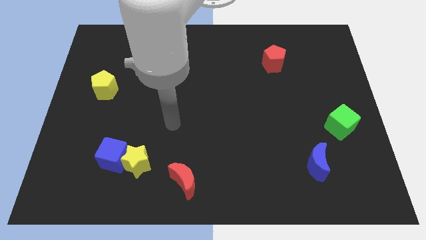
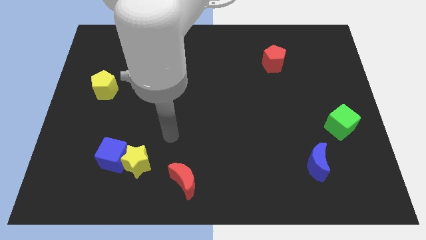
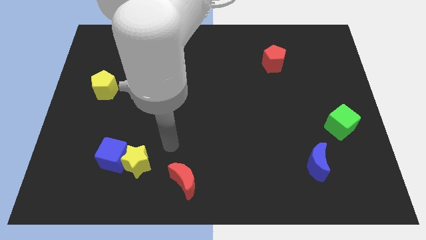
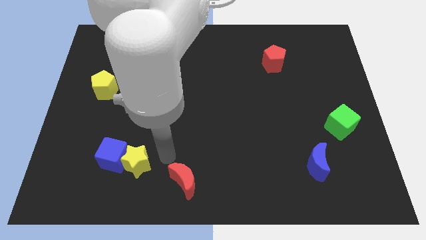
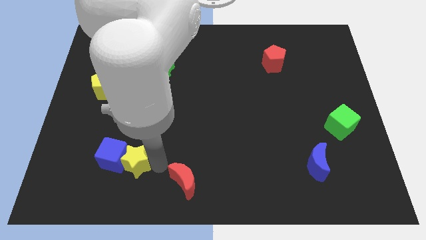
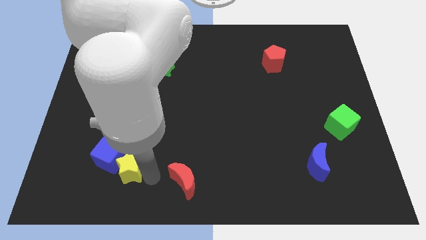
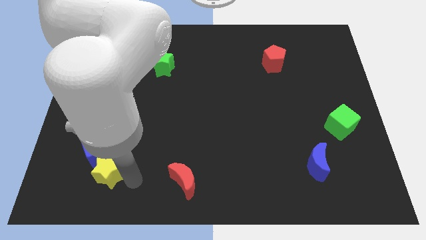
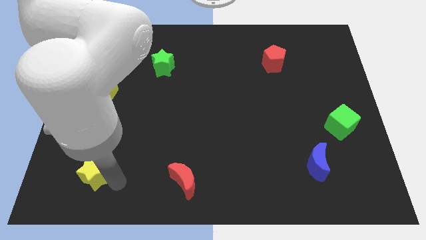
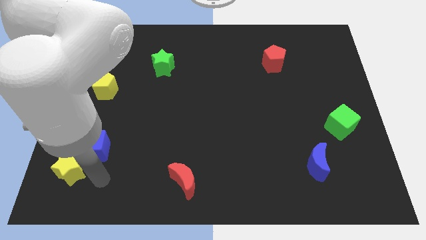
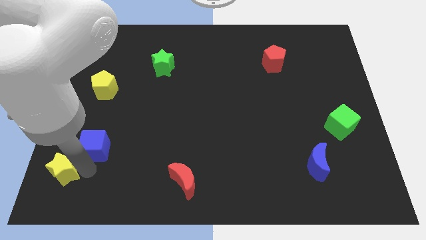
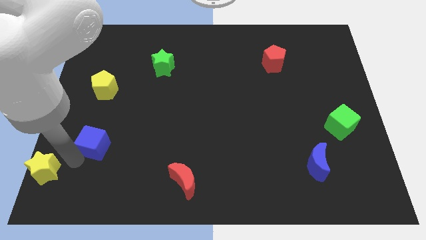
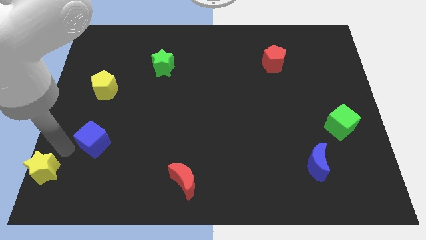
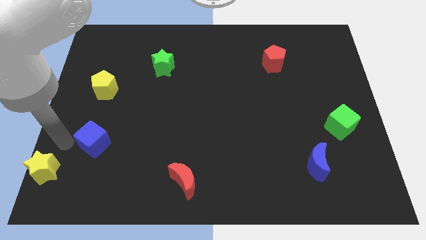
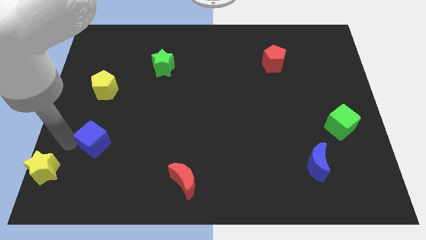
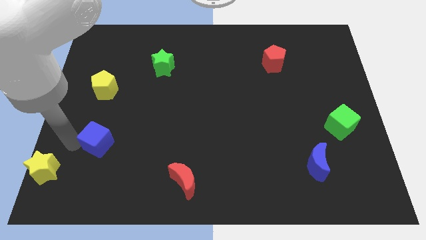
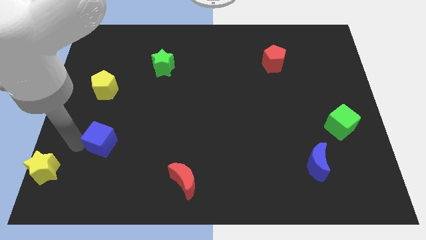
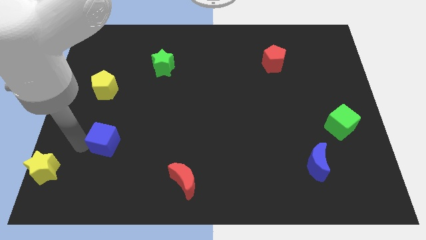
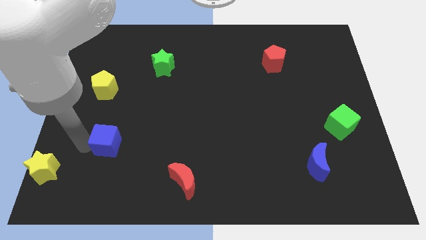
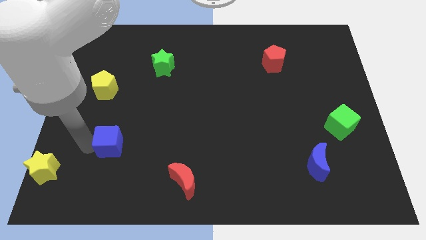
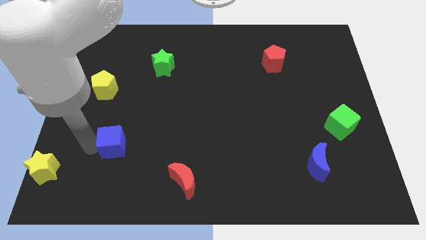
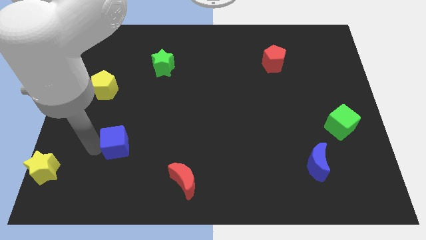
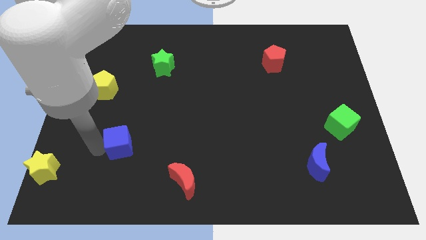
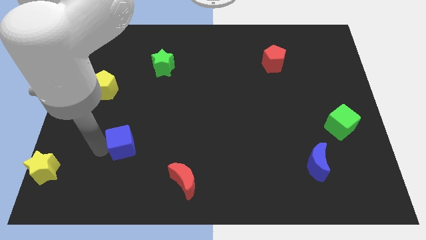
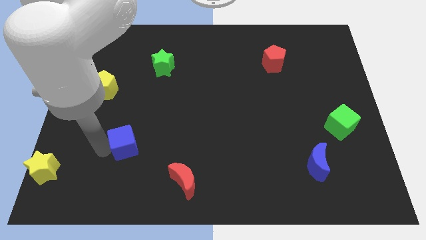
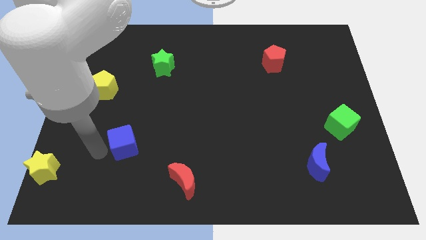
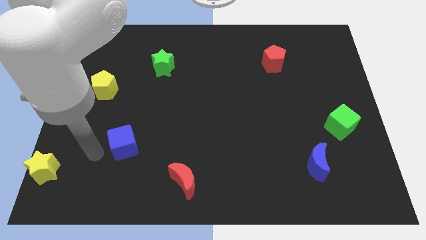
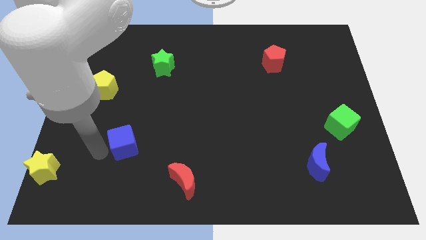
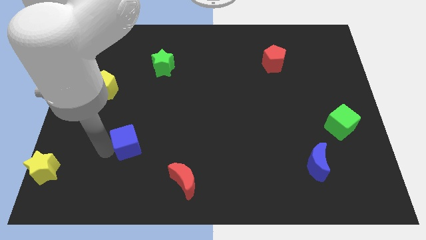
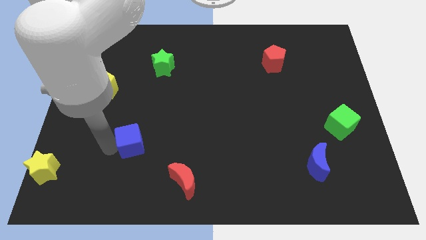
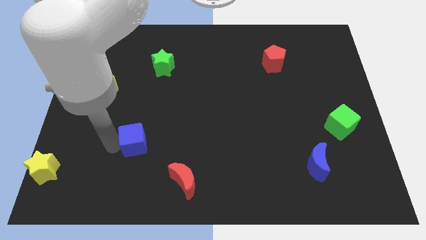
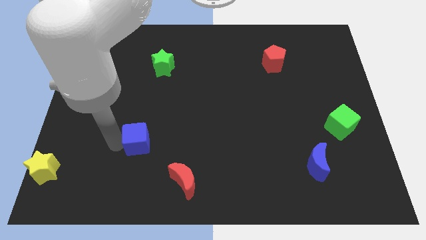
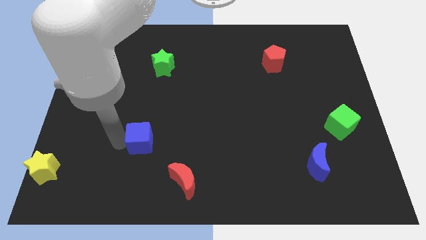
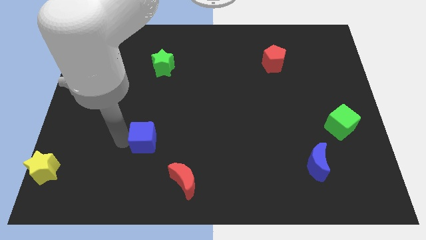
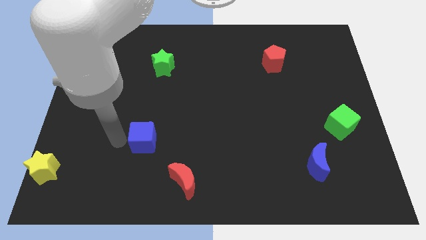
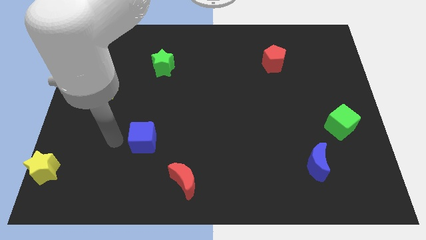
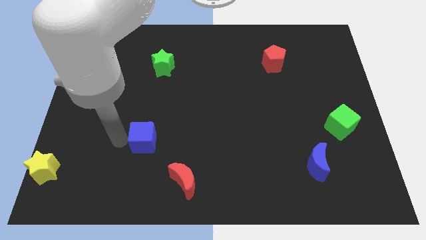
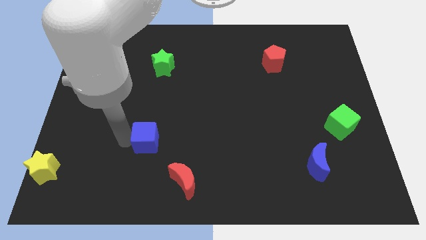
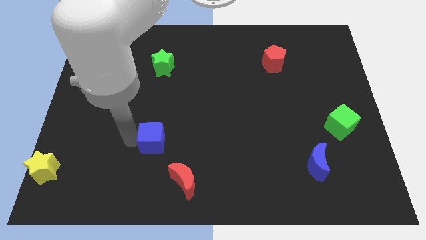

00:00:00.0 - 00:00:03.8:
slightly slide the blue cube to the right

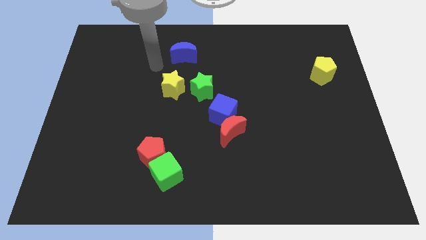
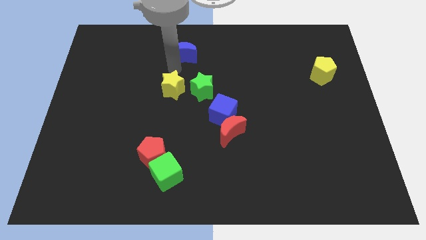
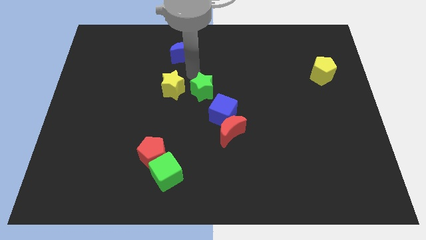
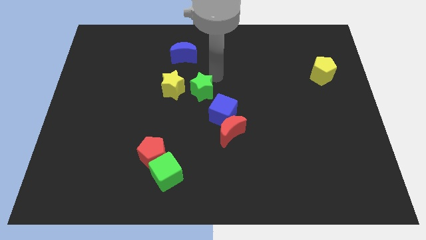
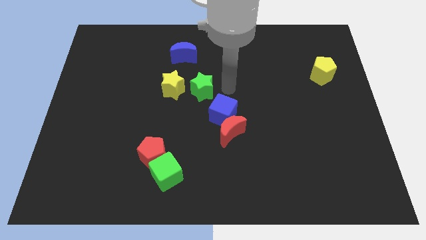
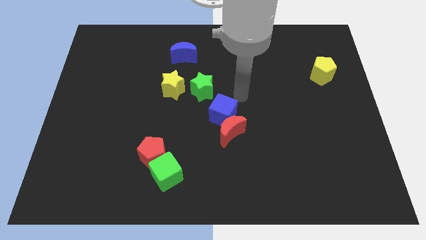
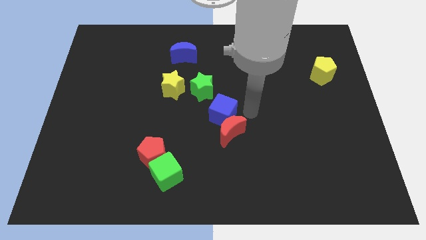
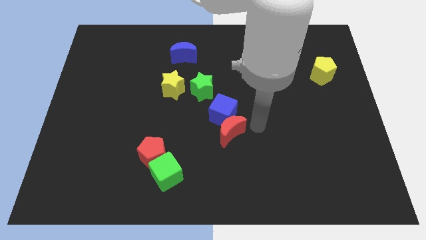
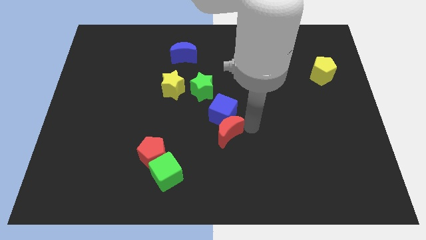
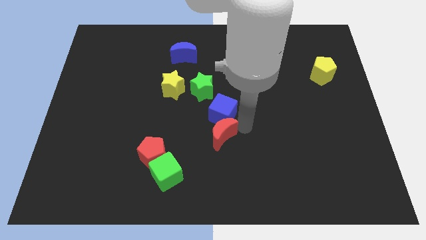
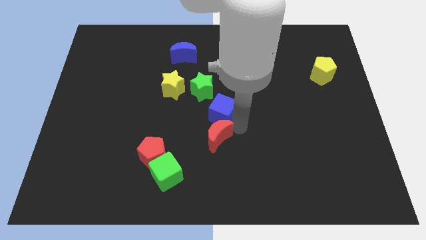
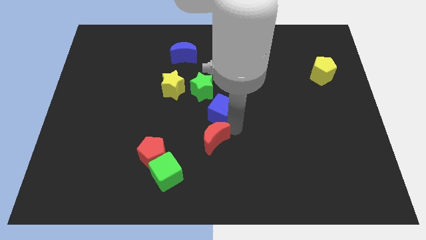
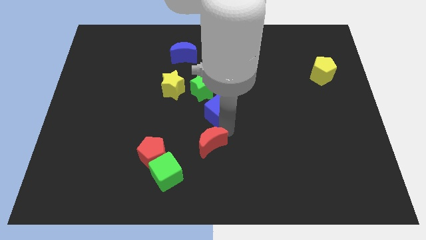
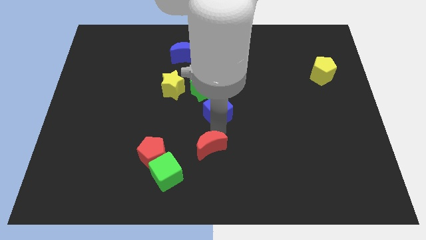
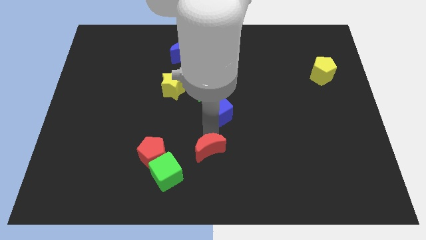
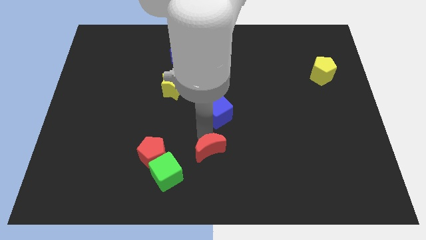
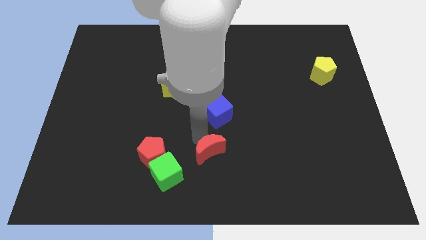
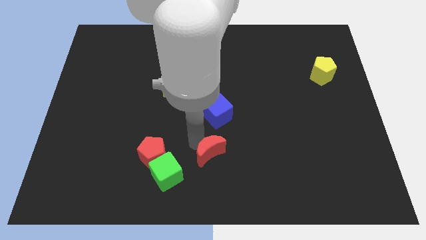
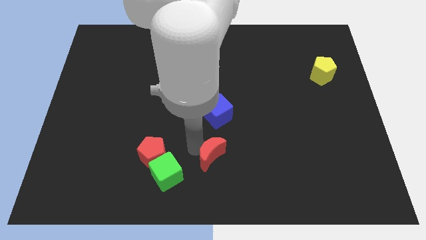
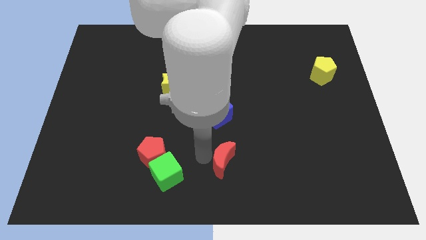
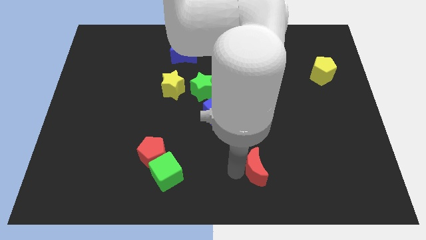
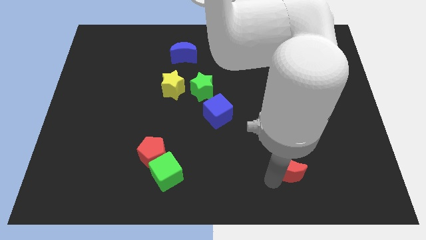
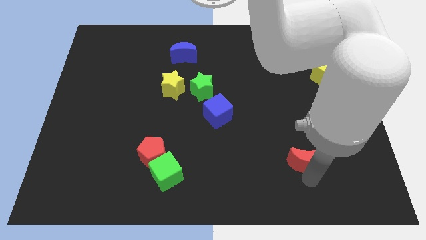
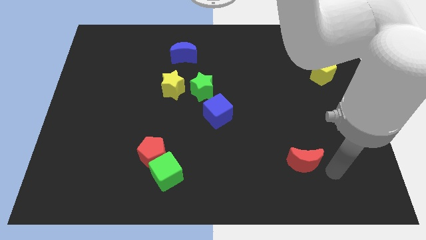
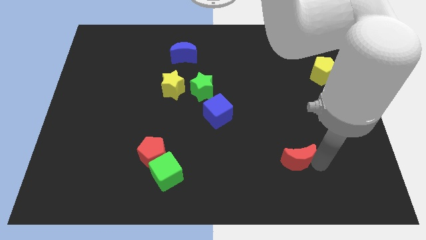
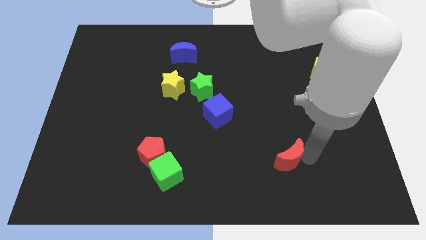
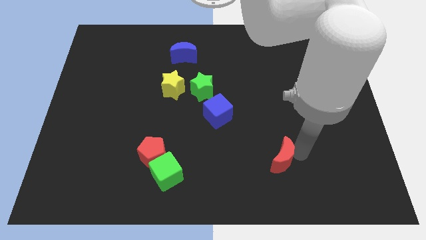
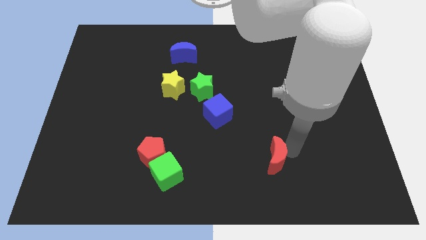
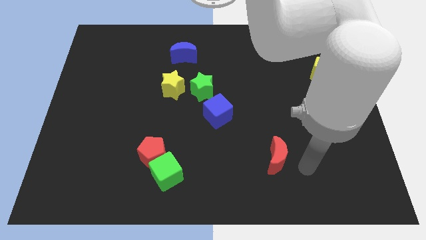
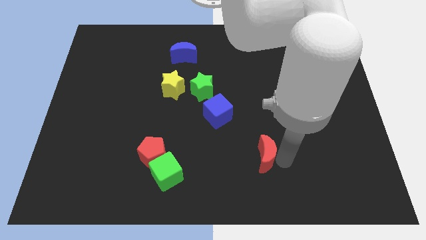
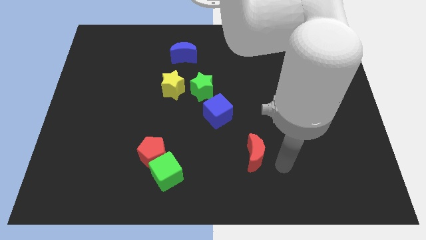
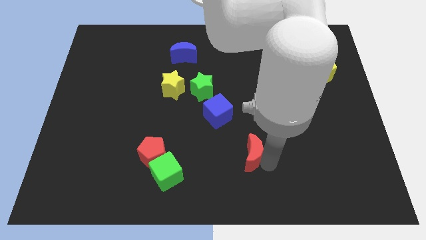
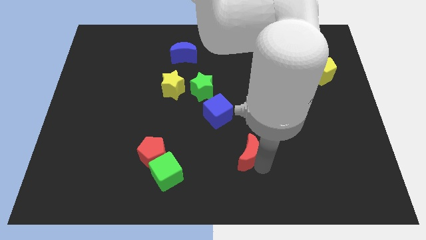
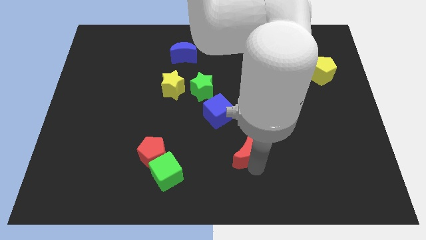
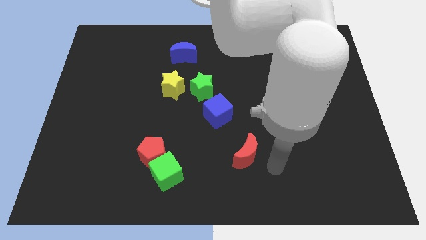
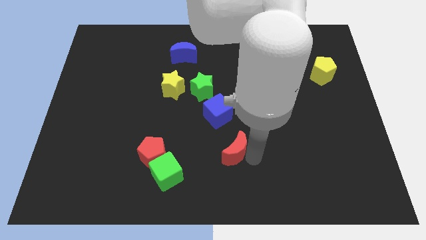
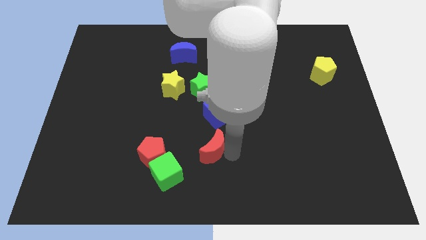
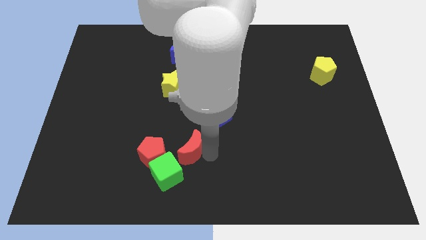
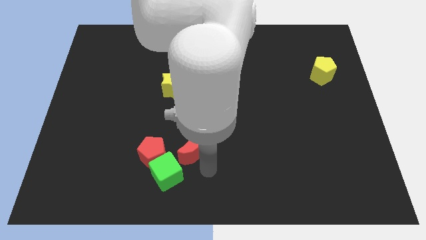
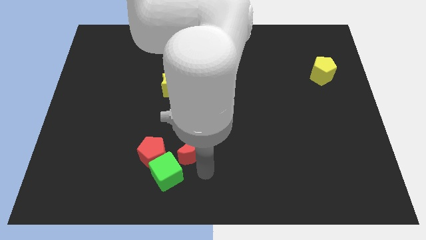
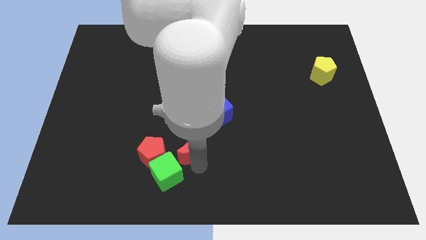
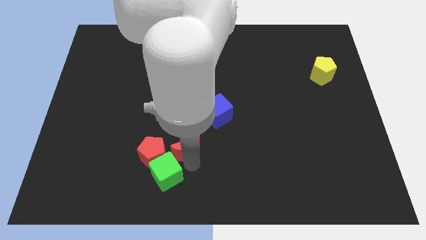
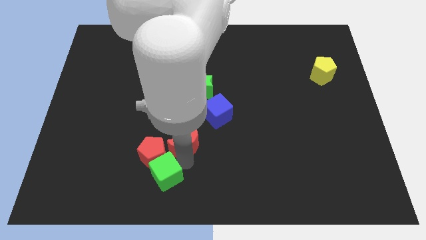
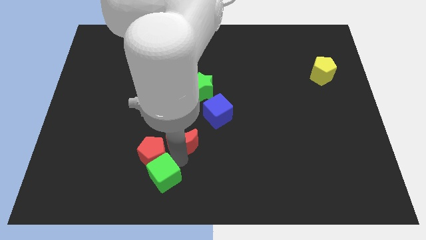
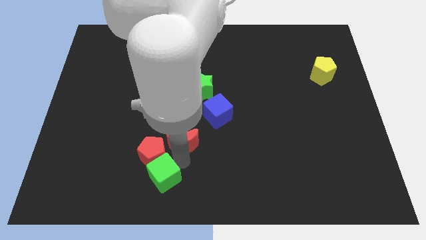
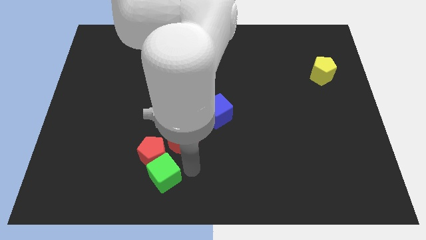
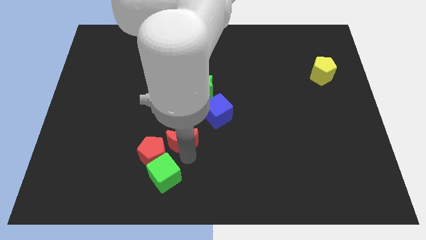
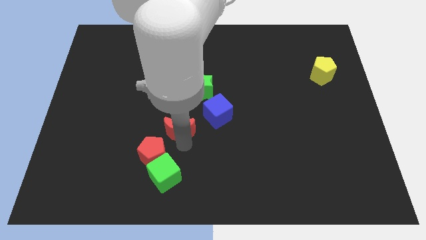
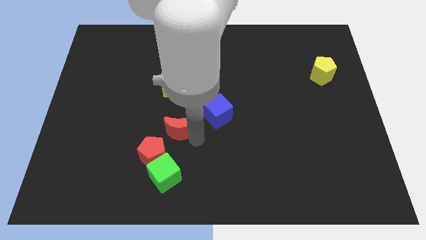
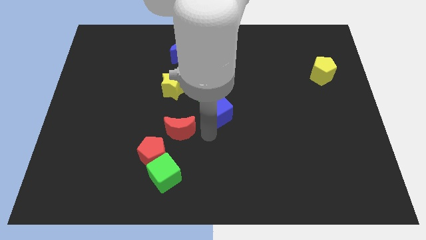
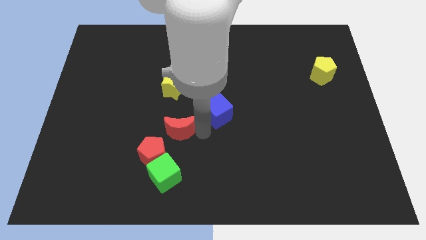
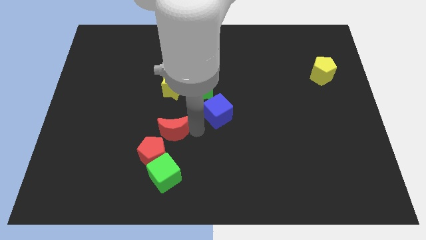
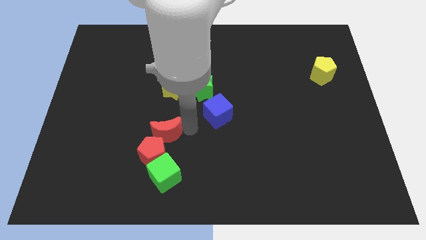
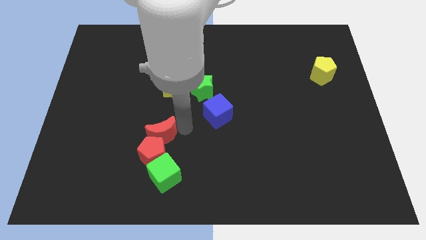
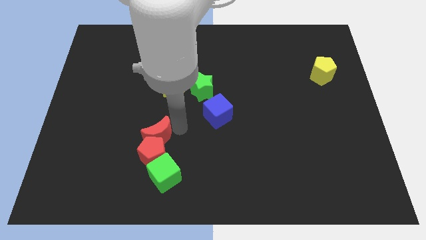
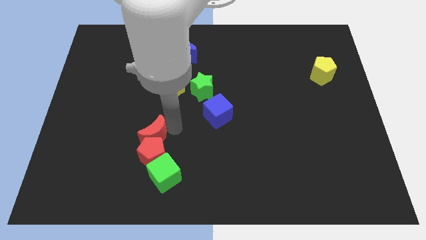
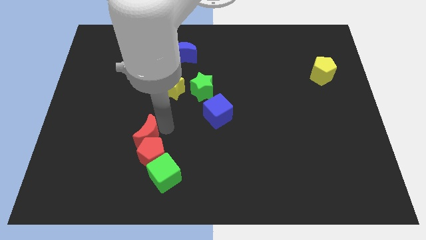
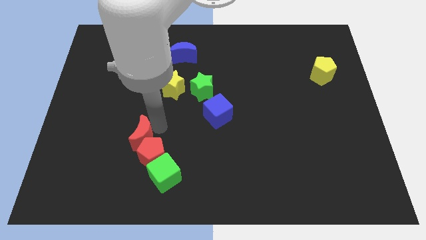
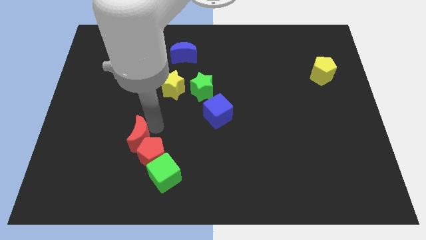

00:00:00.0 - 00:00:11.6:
slide the red moon left
